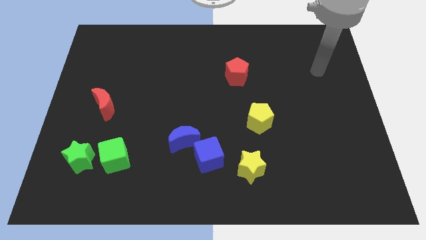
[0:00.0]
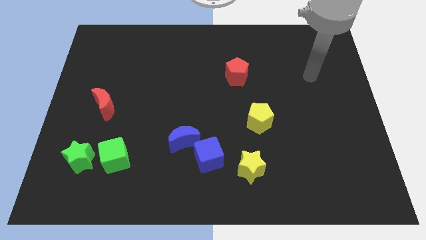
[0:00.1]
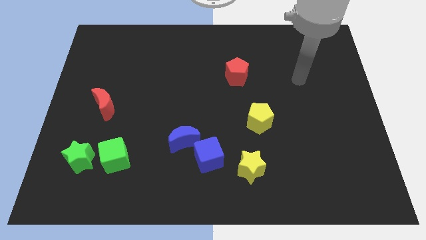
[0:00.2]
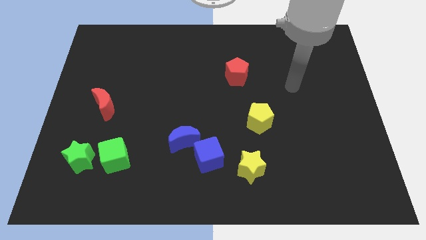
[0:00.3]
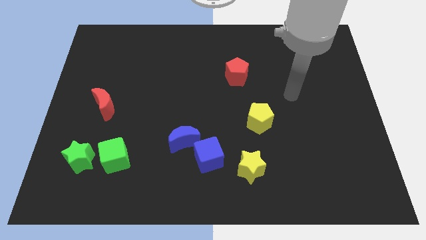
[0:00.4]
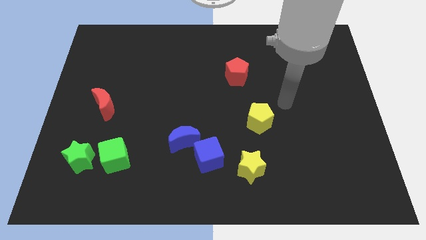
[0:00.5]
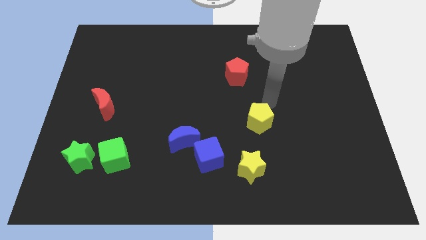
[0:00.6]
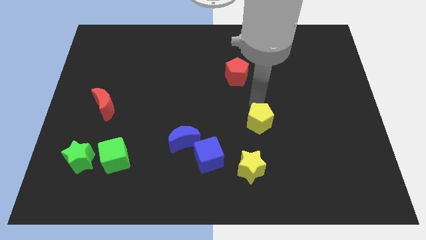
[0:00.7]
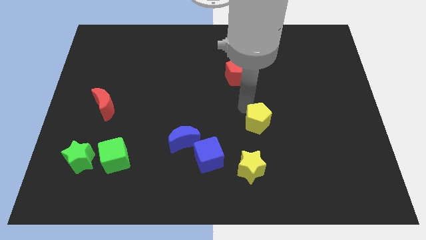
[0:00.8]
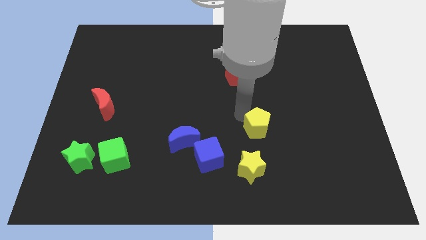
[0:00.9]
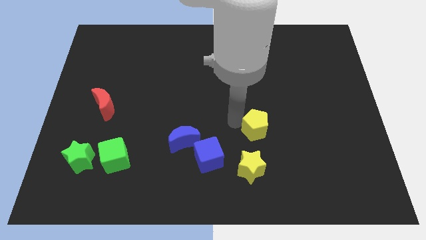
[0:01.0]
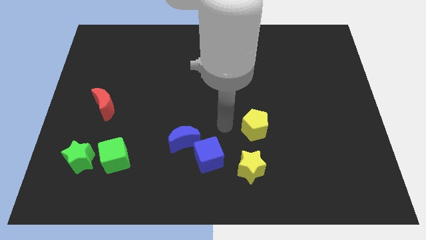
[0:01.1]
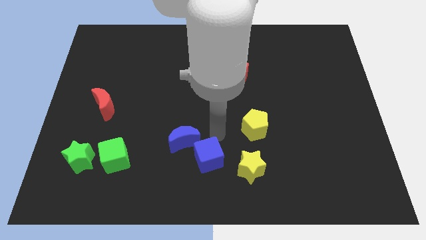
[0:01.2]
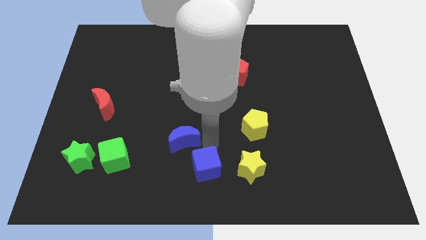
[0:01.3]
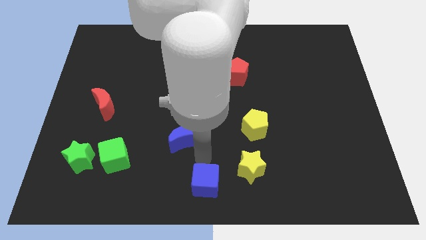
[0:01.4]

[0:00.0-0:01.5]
move the blue moon away from the blue cube

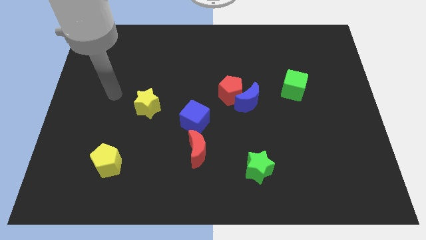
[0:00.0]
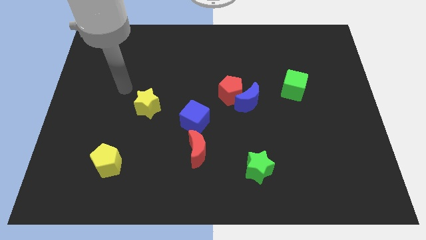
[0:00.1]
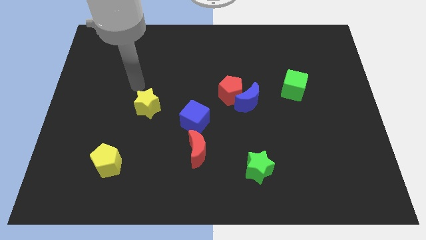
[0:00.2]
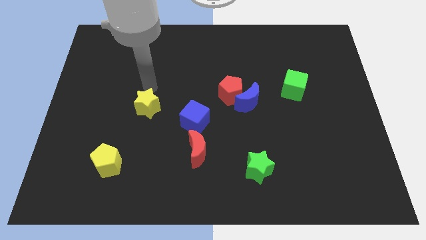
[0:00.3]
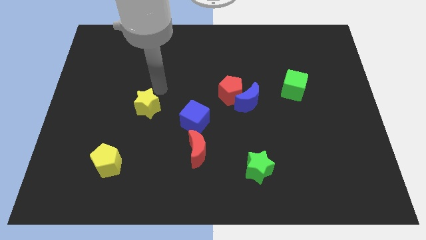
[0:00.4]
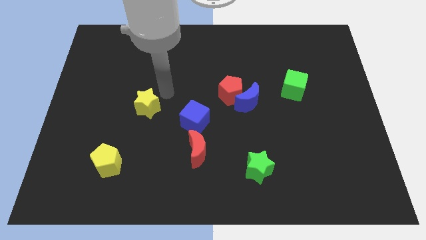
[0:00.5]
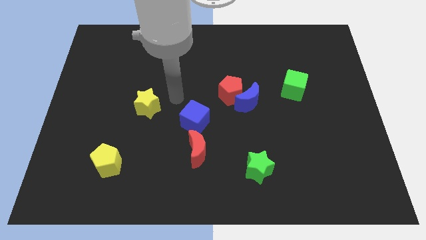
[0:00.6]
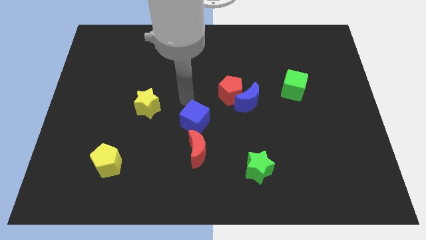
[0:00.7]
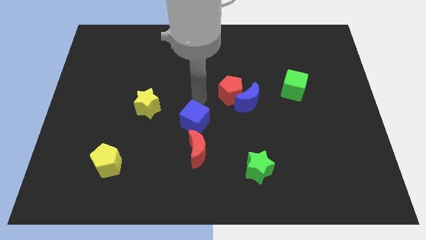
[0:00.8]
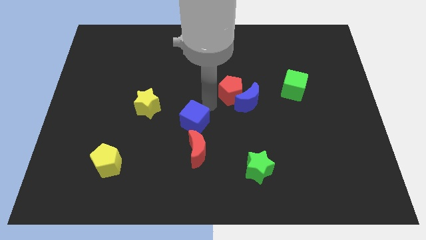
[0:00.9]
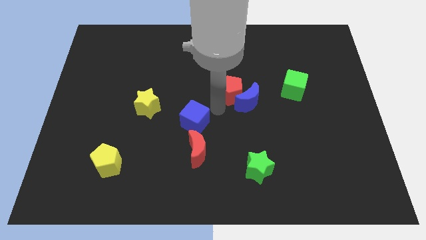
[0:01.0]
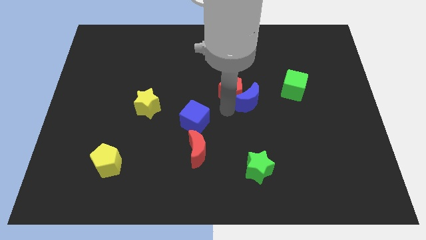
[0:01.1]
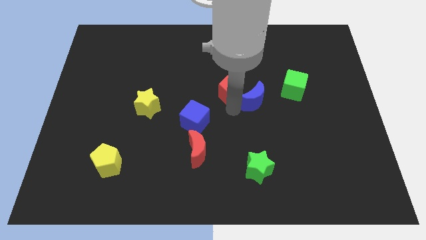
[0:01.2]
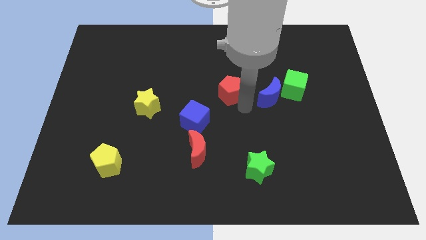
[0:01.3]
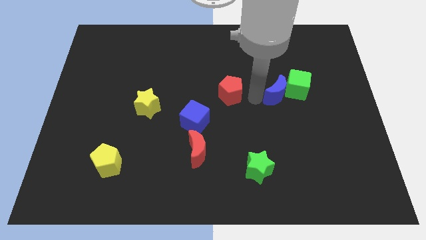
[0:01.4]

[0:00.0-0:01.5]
separate the red pentagon from the blue moon

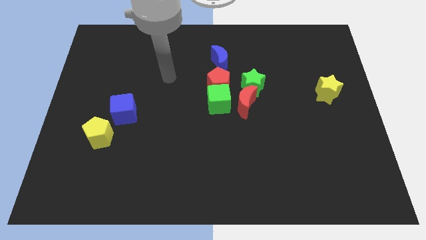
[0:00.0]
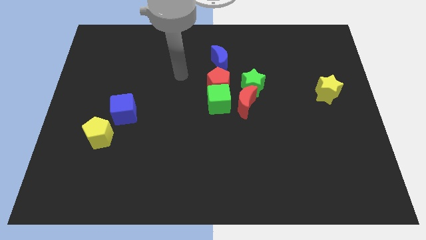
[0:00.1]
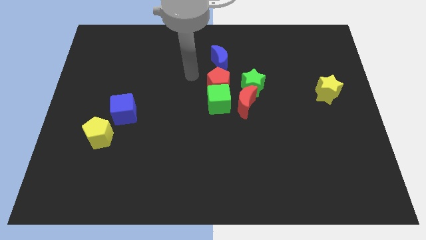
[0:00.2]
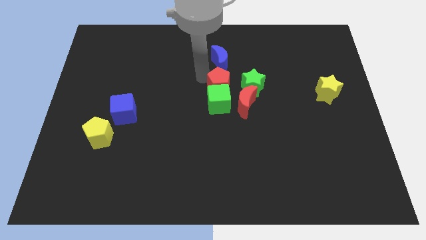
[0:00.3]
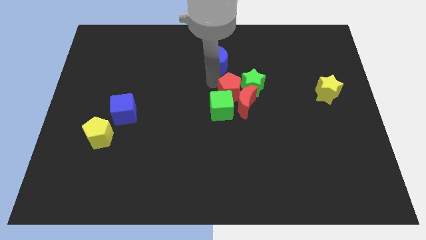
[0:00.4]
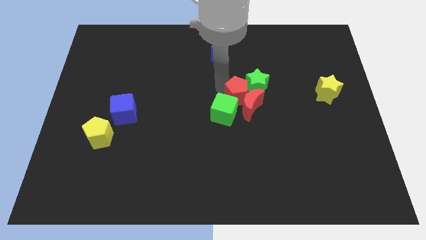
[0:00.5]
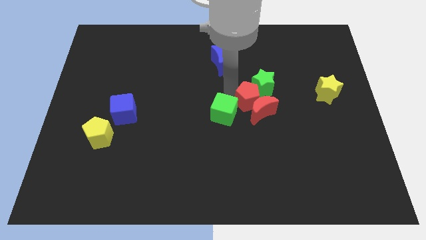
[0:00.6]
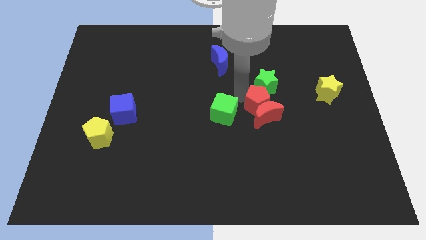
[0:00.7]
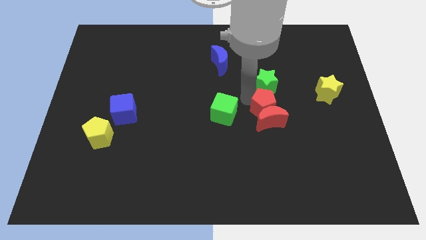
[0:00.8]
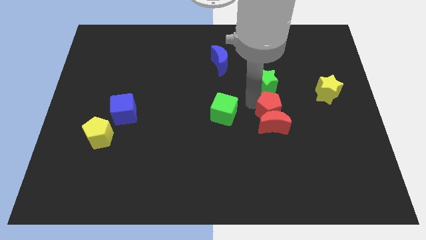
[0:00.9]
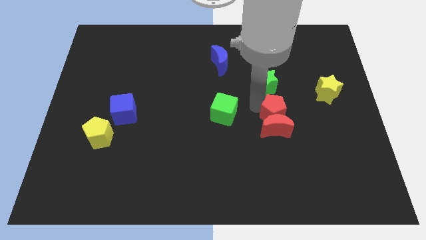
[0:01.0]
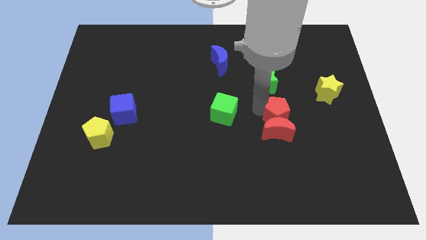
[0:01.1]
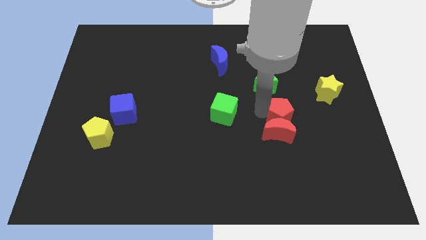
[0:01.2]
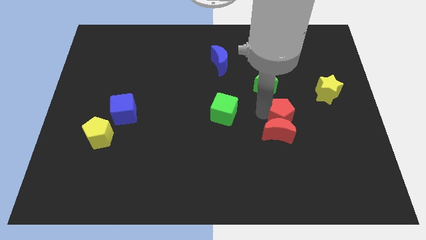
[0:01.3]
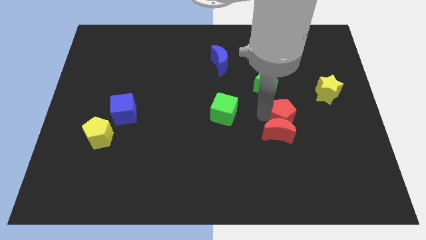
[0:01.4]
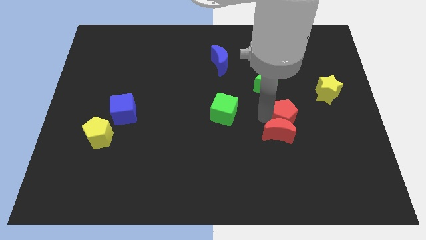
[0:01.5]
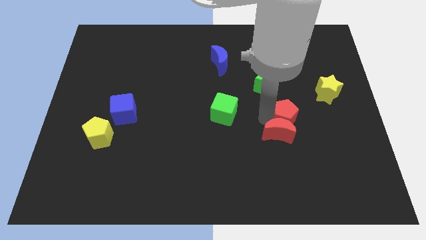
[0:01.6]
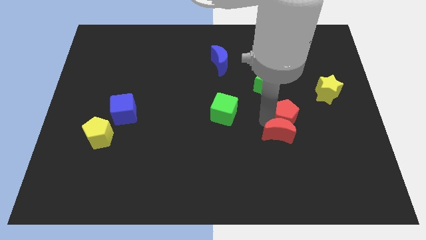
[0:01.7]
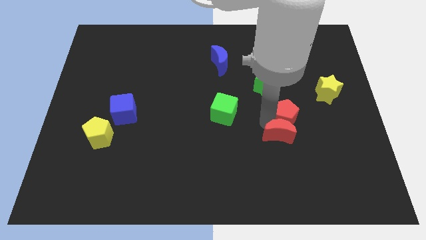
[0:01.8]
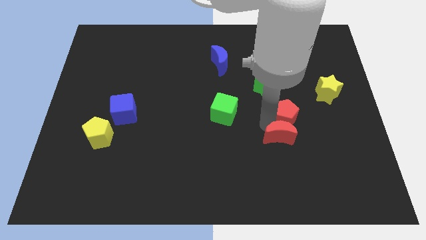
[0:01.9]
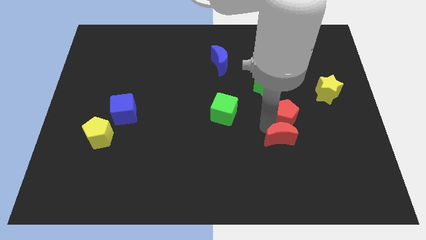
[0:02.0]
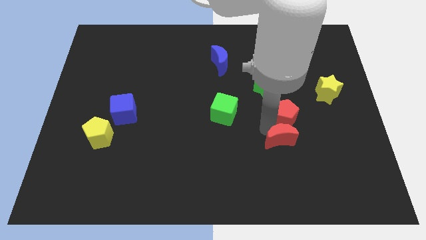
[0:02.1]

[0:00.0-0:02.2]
move the red moon away from the green star, green cube, and red pentagon

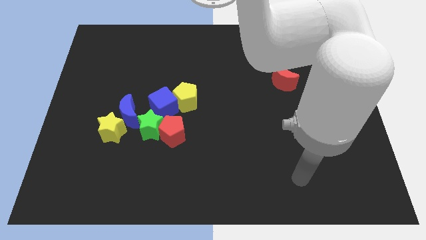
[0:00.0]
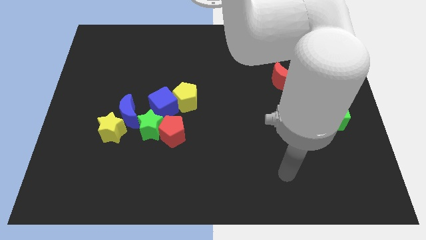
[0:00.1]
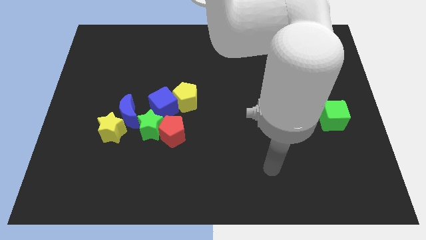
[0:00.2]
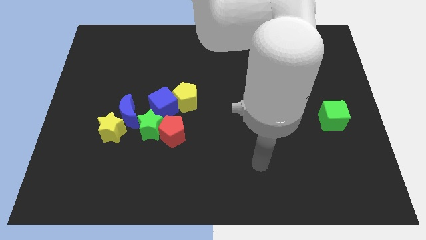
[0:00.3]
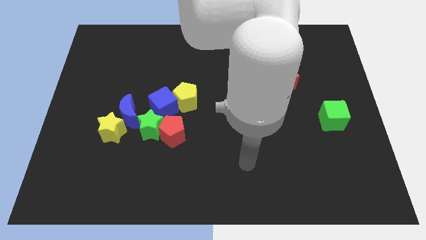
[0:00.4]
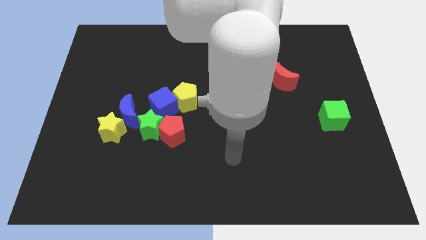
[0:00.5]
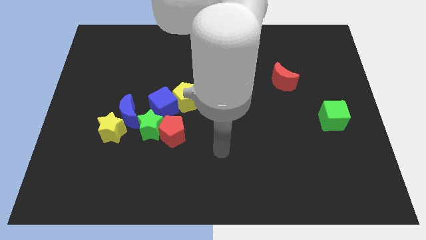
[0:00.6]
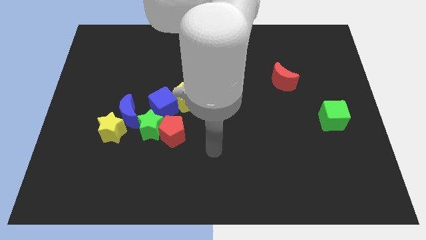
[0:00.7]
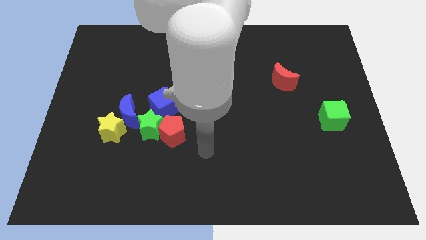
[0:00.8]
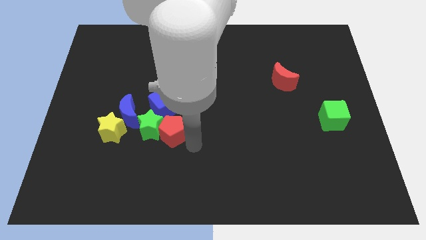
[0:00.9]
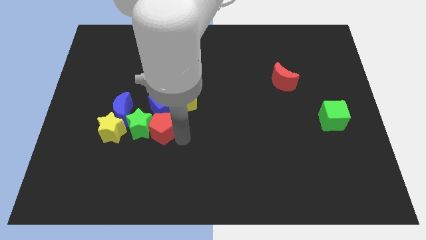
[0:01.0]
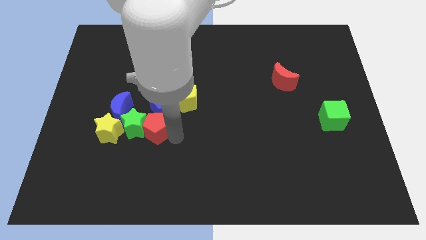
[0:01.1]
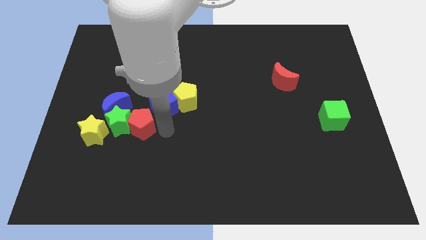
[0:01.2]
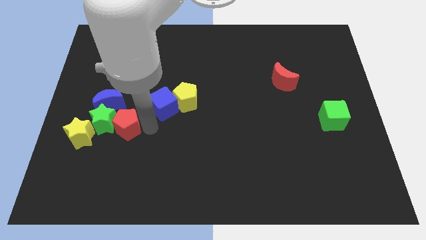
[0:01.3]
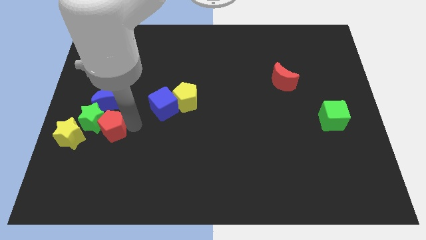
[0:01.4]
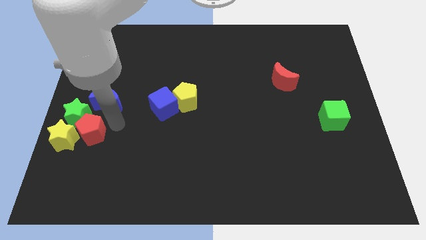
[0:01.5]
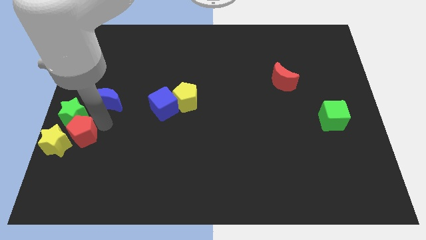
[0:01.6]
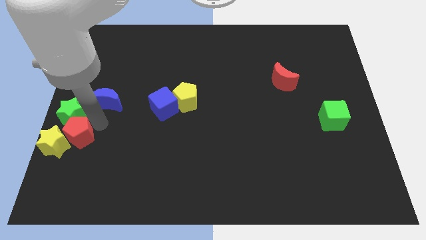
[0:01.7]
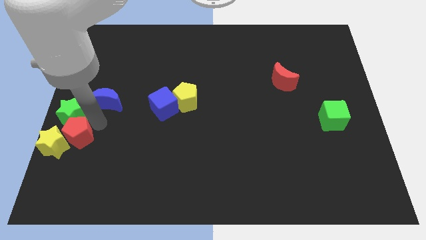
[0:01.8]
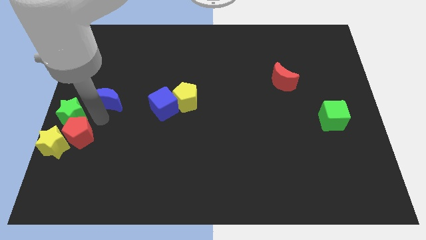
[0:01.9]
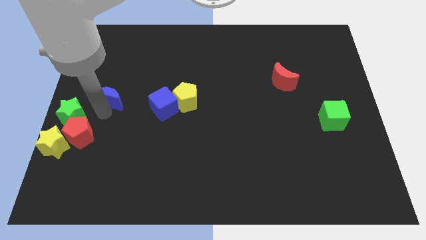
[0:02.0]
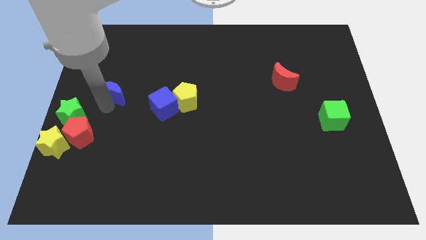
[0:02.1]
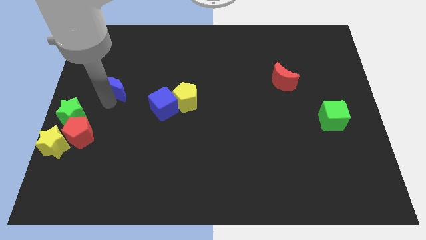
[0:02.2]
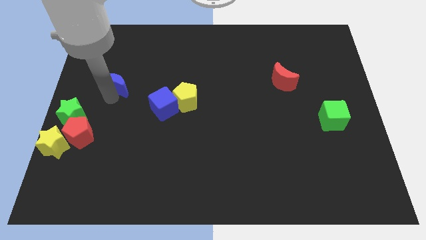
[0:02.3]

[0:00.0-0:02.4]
pull the blue moon apart from the group of blocks

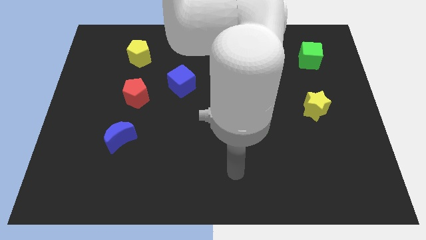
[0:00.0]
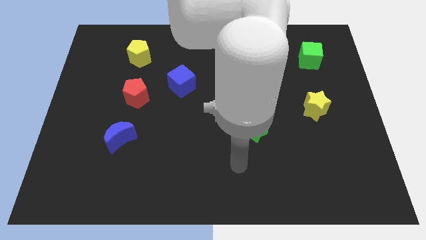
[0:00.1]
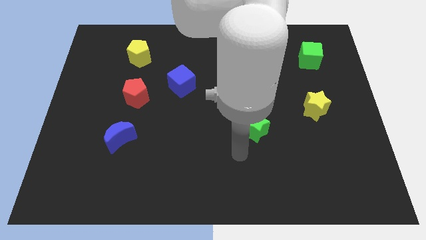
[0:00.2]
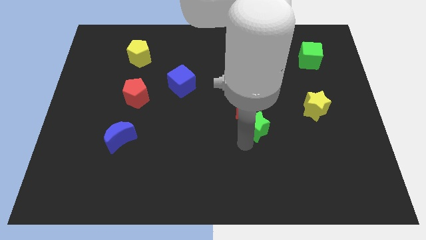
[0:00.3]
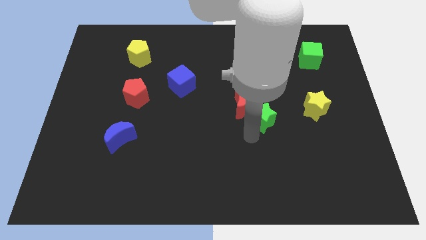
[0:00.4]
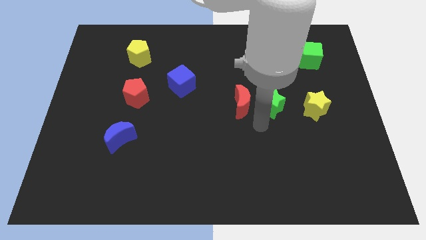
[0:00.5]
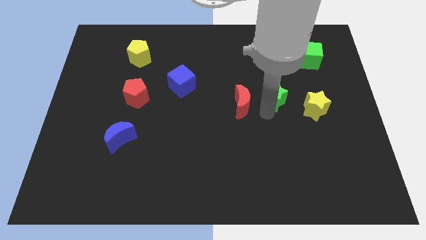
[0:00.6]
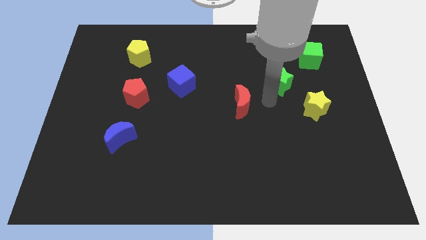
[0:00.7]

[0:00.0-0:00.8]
separate the red moon from the green star

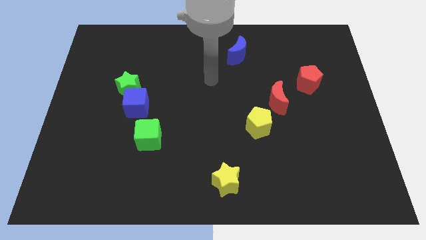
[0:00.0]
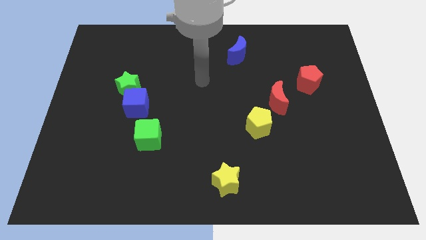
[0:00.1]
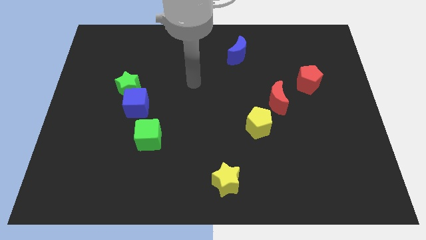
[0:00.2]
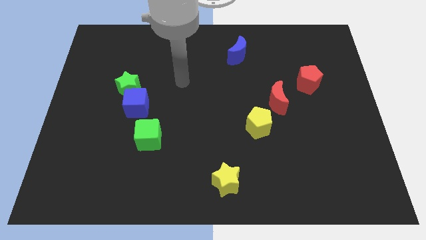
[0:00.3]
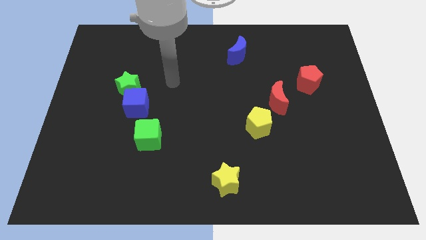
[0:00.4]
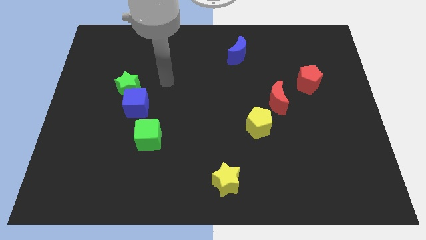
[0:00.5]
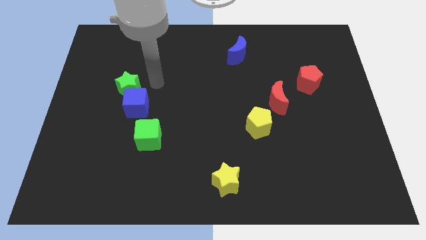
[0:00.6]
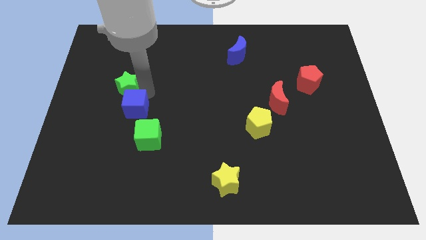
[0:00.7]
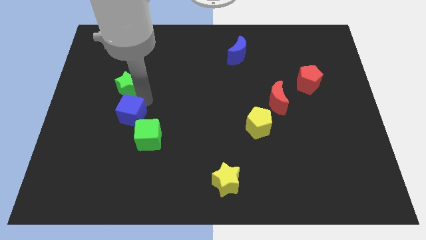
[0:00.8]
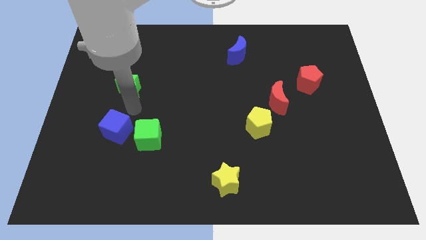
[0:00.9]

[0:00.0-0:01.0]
separate the green star from the blue cube
